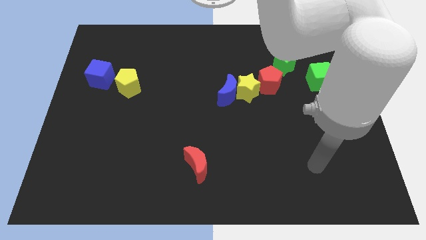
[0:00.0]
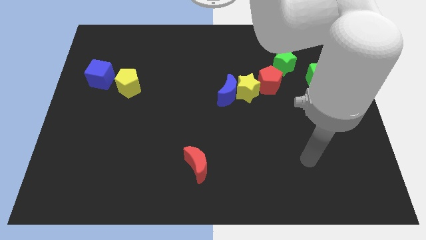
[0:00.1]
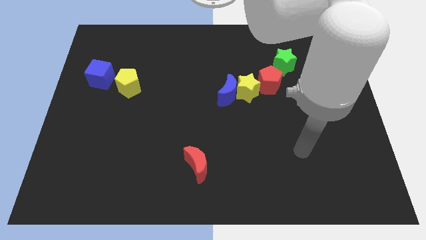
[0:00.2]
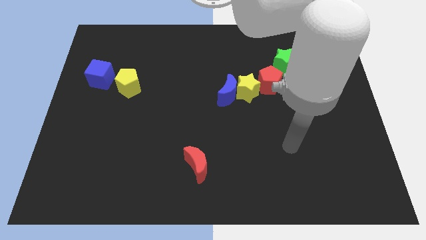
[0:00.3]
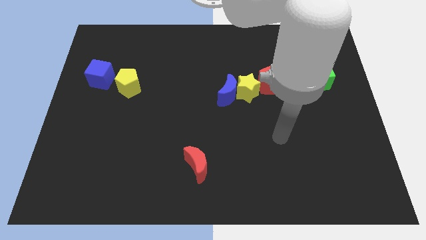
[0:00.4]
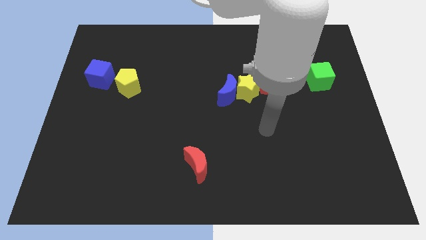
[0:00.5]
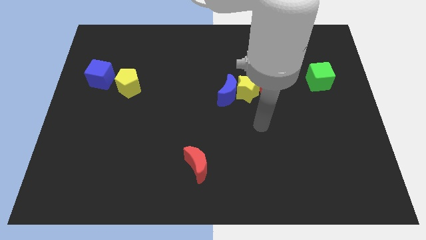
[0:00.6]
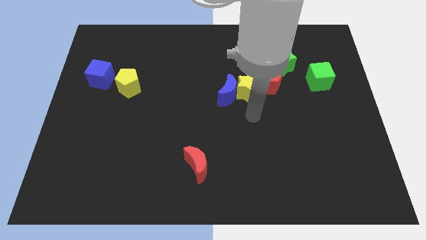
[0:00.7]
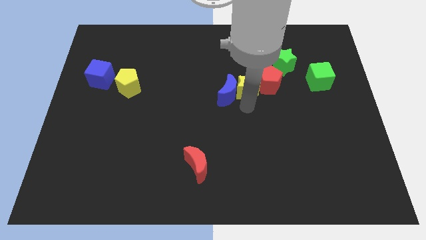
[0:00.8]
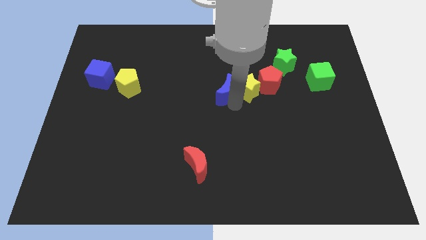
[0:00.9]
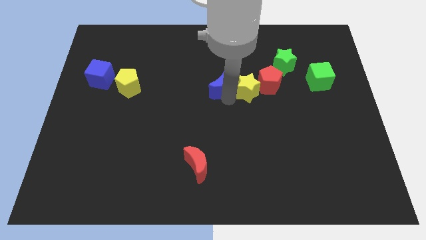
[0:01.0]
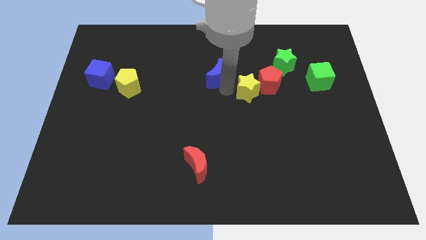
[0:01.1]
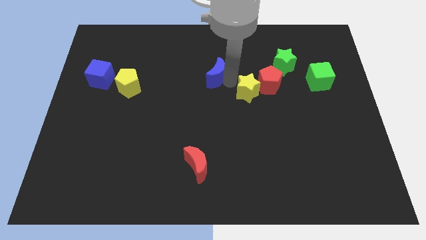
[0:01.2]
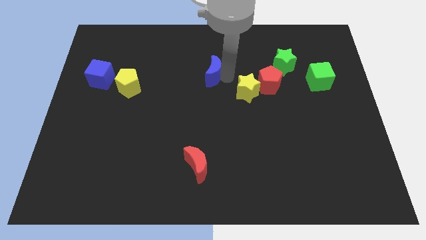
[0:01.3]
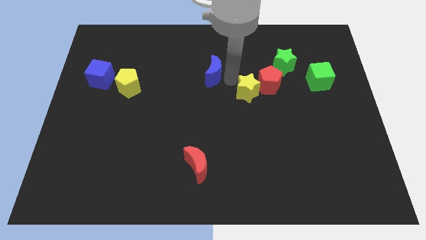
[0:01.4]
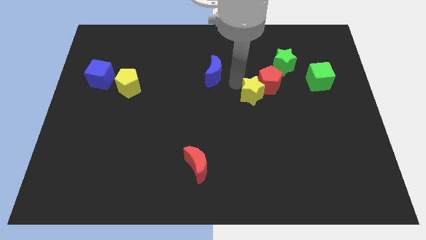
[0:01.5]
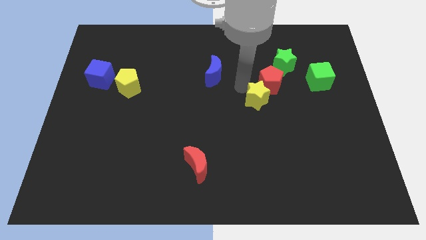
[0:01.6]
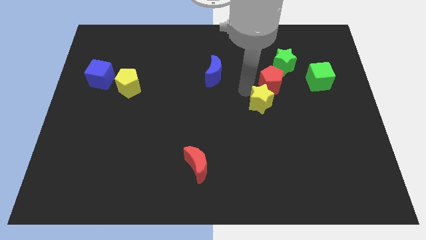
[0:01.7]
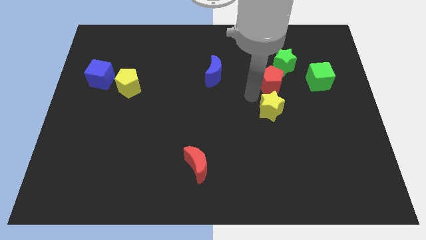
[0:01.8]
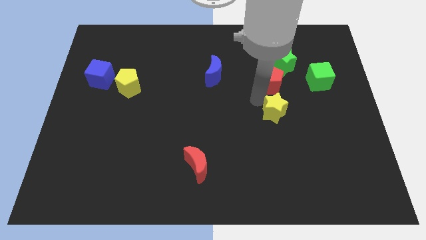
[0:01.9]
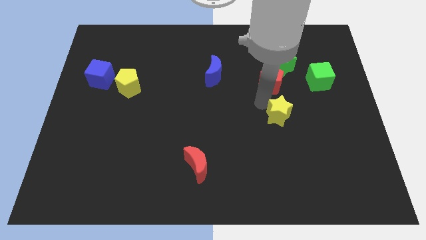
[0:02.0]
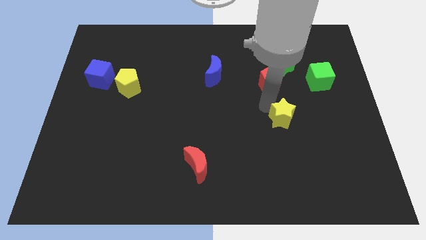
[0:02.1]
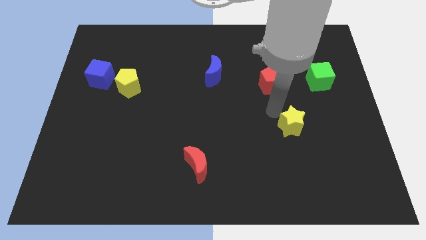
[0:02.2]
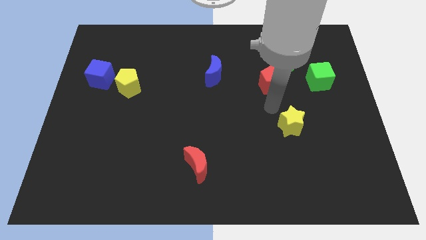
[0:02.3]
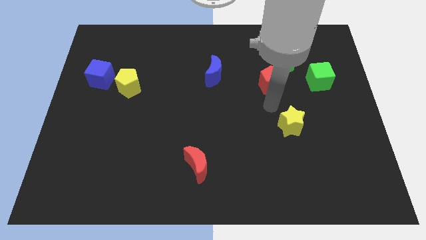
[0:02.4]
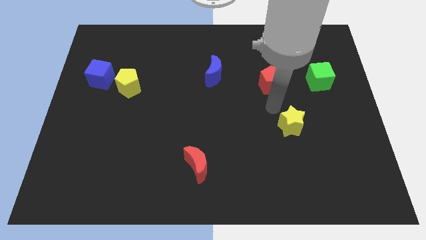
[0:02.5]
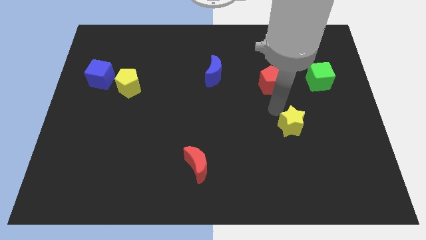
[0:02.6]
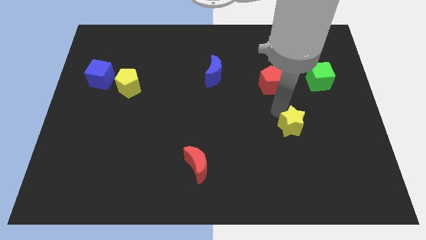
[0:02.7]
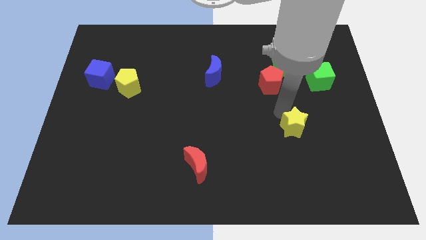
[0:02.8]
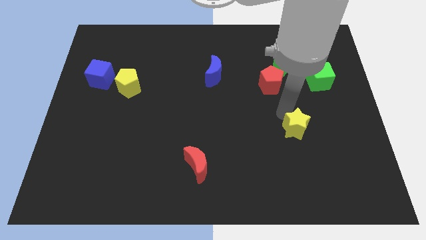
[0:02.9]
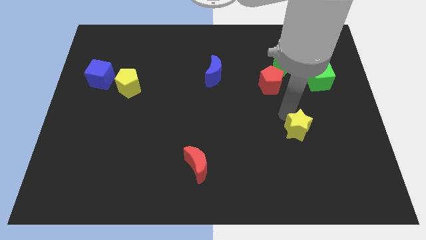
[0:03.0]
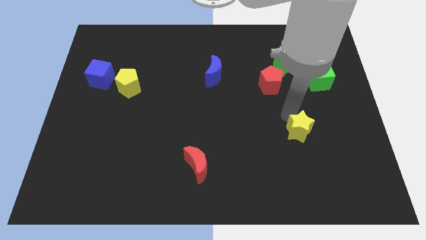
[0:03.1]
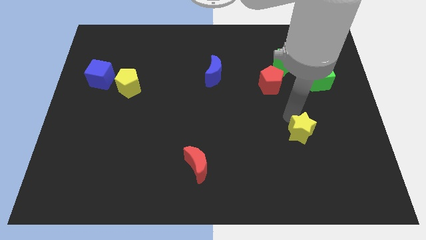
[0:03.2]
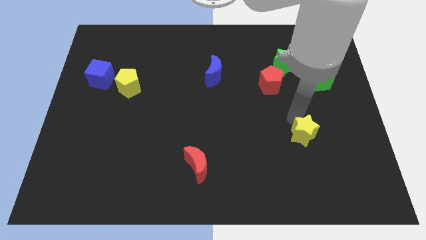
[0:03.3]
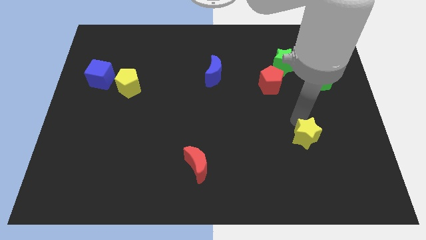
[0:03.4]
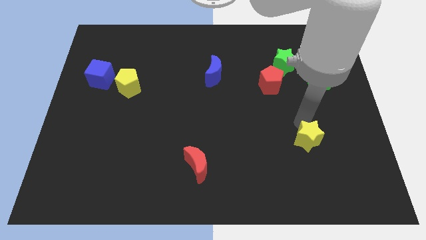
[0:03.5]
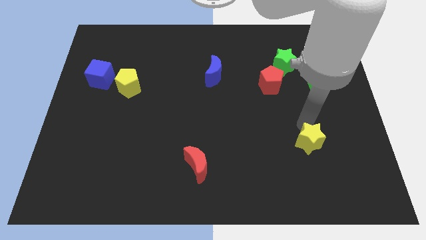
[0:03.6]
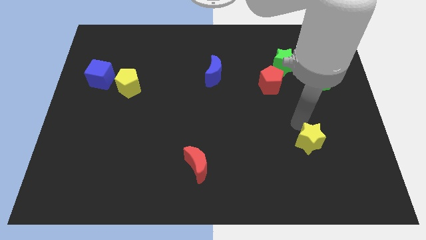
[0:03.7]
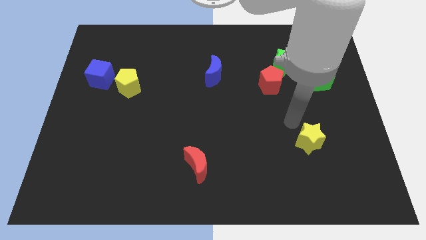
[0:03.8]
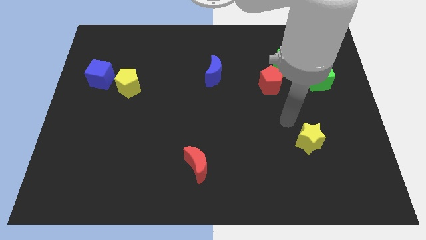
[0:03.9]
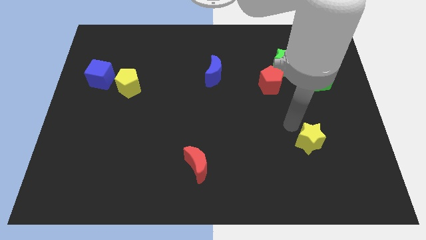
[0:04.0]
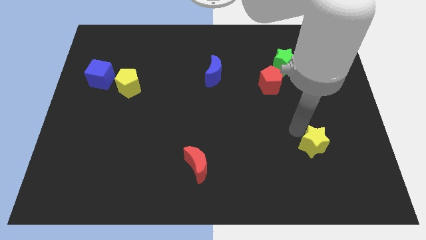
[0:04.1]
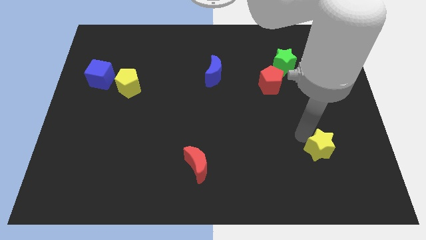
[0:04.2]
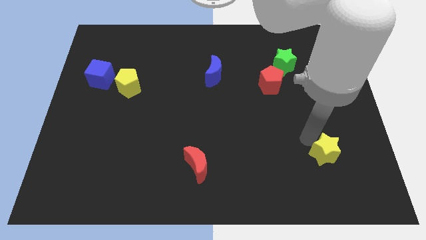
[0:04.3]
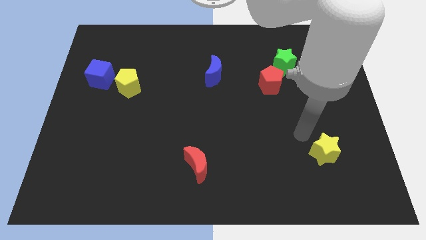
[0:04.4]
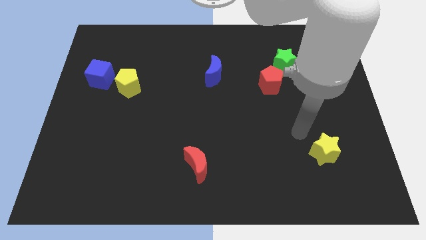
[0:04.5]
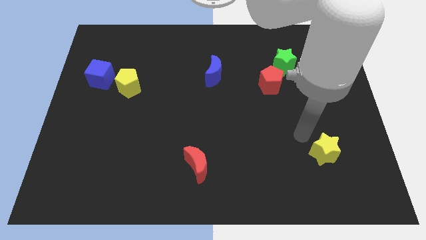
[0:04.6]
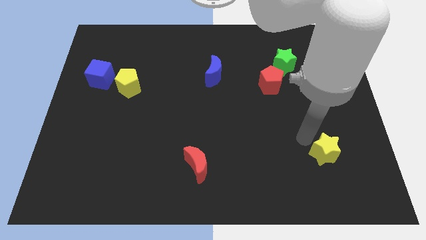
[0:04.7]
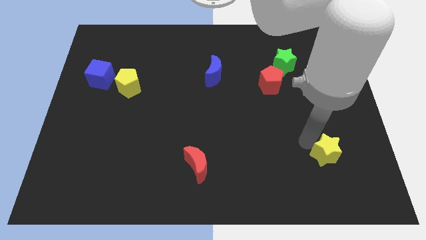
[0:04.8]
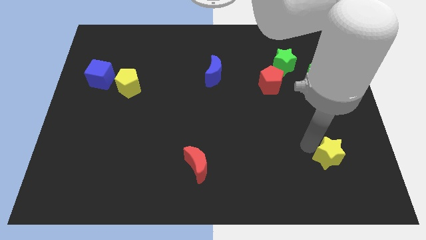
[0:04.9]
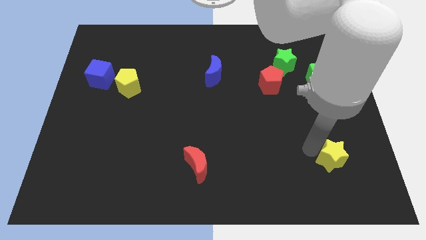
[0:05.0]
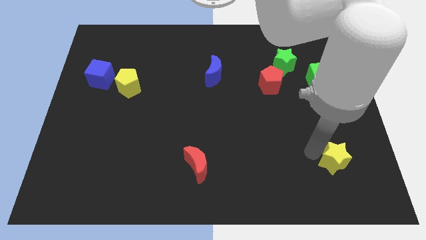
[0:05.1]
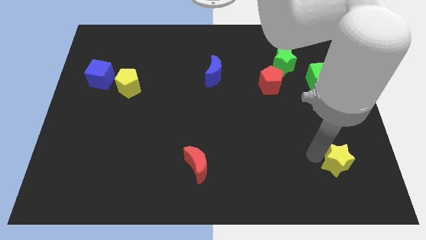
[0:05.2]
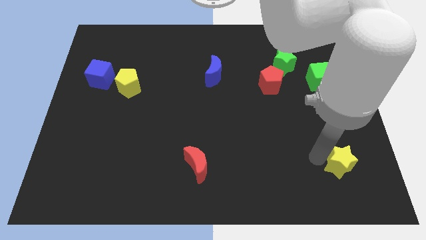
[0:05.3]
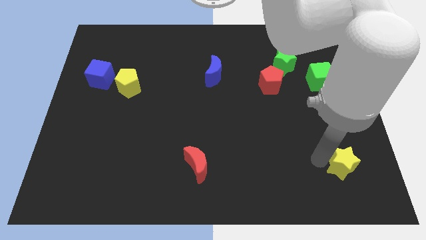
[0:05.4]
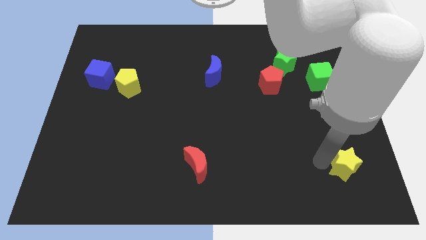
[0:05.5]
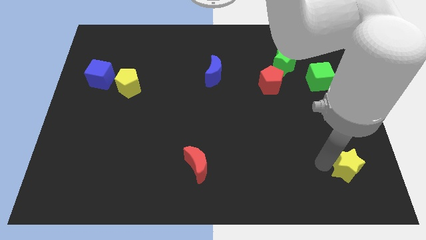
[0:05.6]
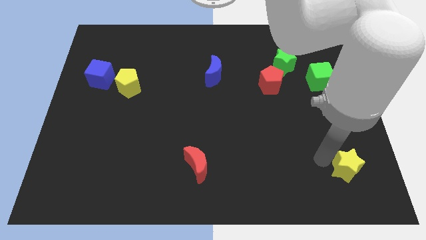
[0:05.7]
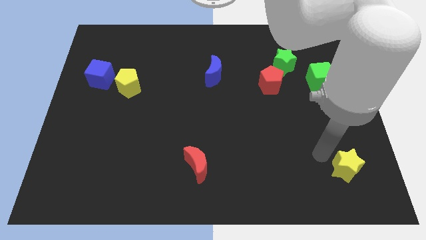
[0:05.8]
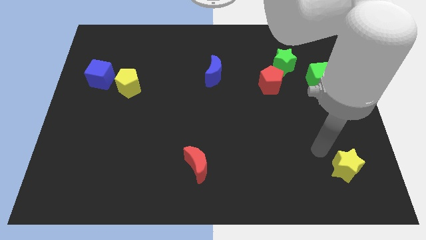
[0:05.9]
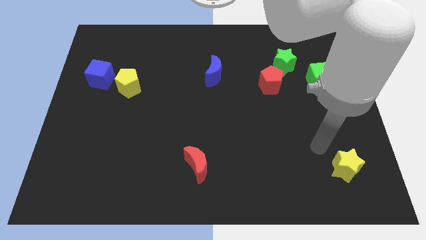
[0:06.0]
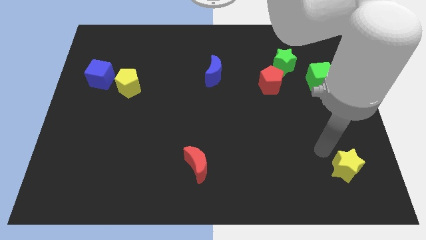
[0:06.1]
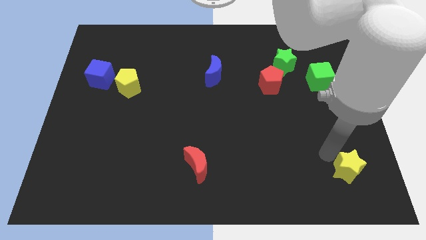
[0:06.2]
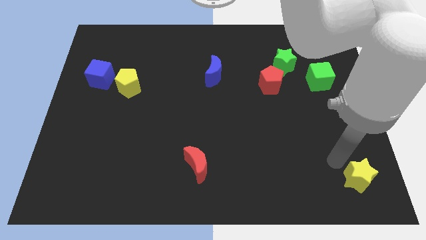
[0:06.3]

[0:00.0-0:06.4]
move the yellow star to the bottom right corner
